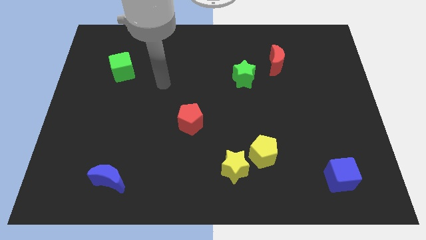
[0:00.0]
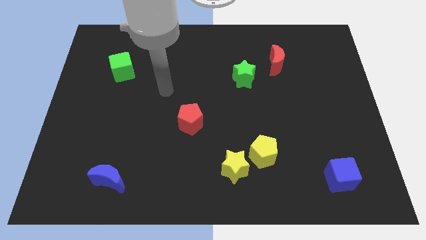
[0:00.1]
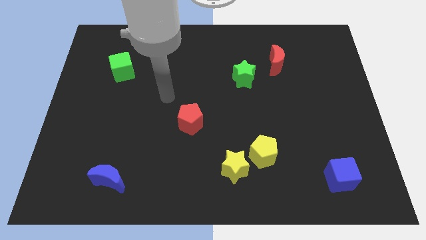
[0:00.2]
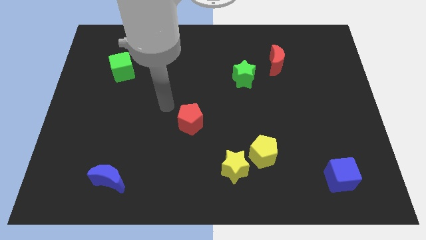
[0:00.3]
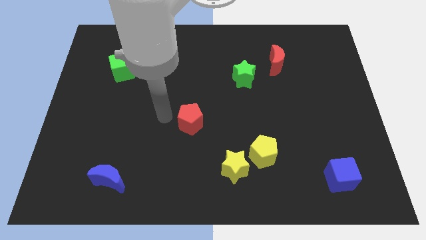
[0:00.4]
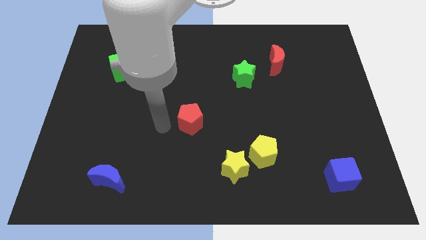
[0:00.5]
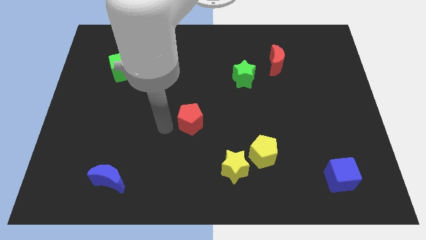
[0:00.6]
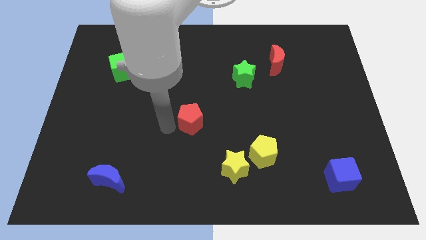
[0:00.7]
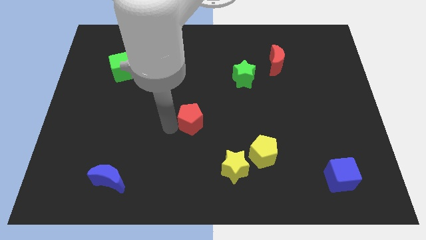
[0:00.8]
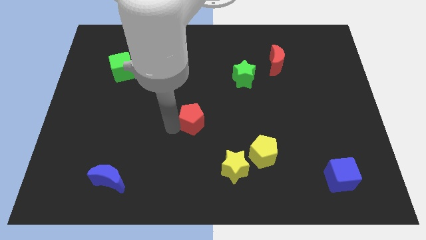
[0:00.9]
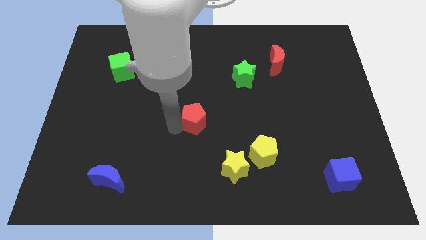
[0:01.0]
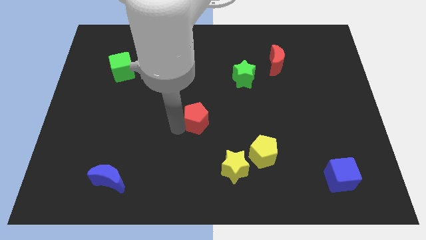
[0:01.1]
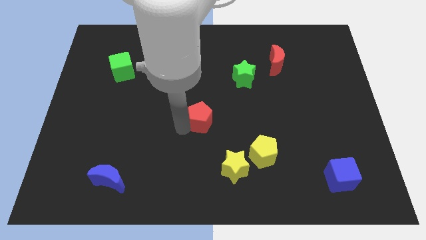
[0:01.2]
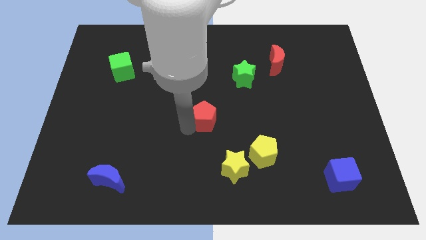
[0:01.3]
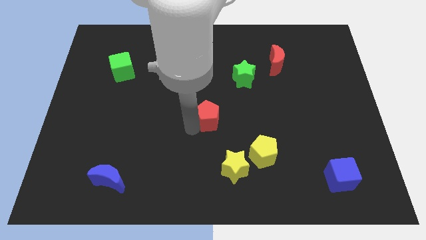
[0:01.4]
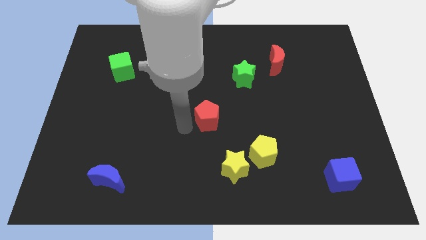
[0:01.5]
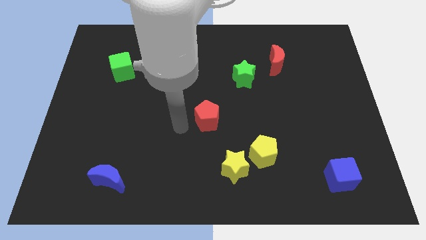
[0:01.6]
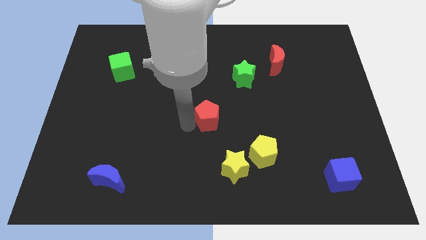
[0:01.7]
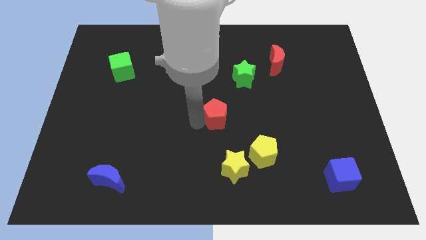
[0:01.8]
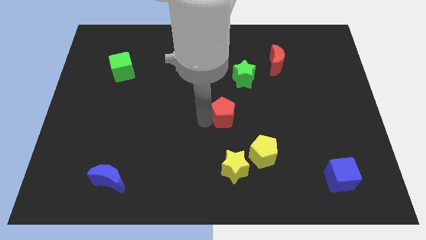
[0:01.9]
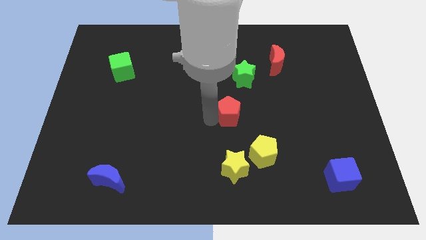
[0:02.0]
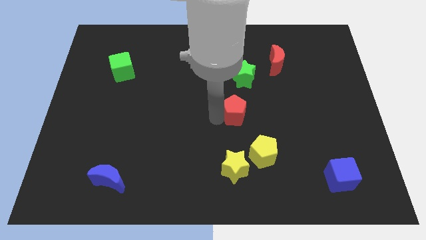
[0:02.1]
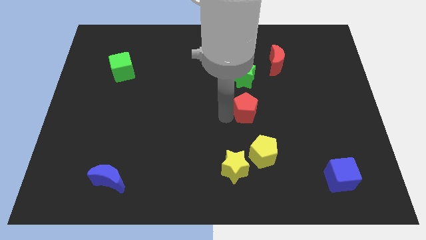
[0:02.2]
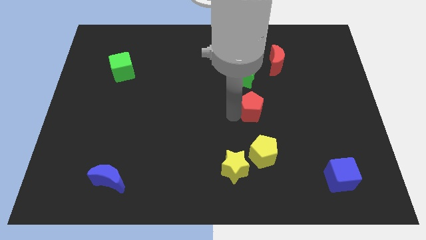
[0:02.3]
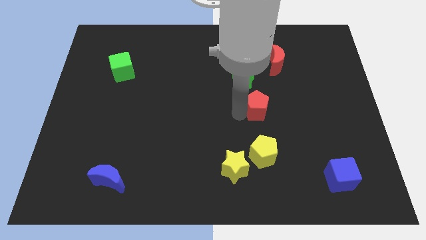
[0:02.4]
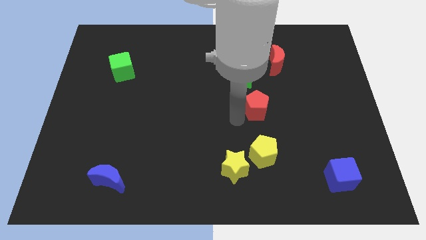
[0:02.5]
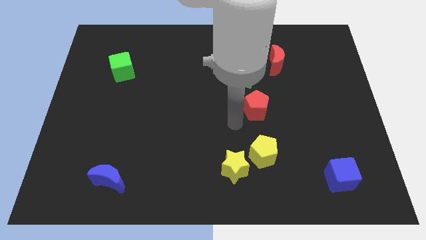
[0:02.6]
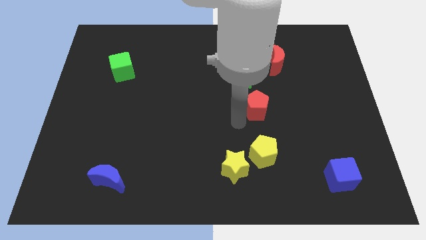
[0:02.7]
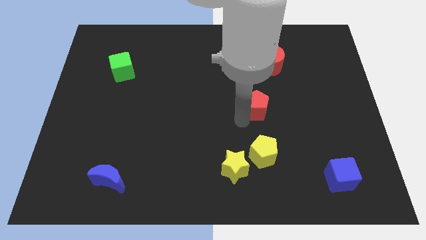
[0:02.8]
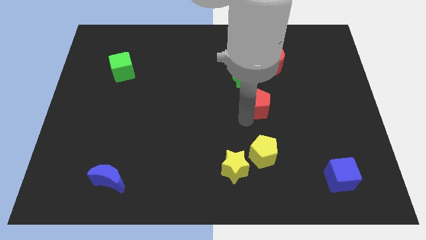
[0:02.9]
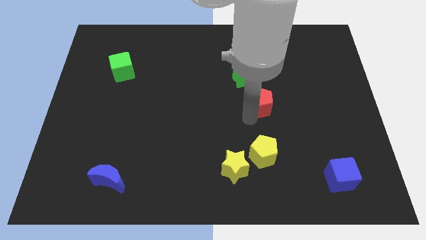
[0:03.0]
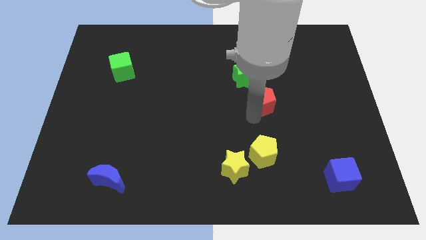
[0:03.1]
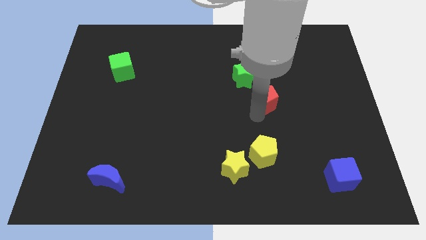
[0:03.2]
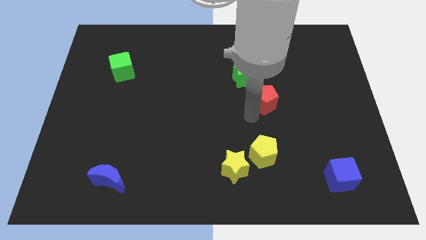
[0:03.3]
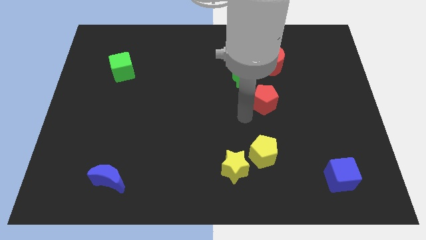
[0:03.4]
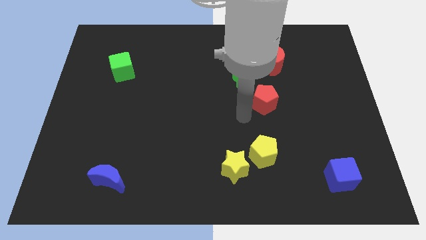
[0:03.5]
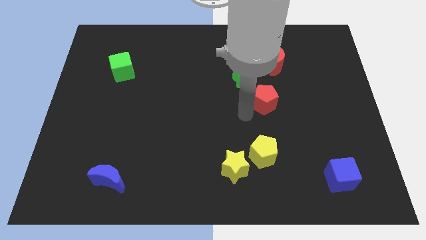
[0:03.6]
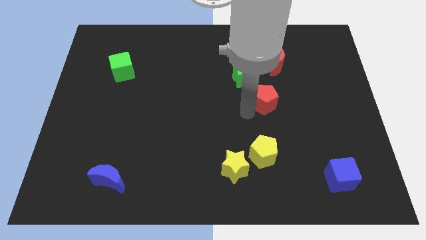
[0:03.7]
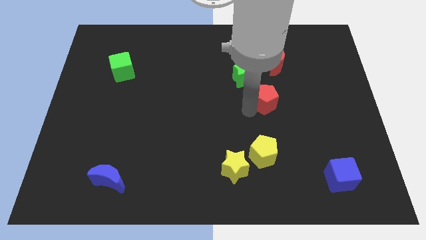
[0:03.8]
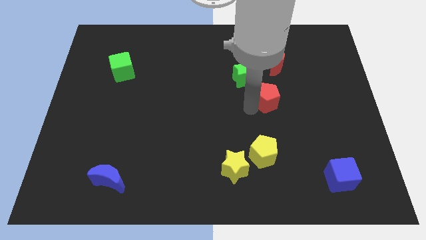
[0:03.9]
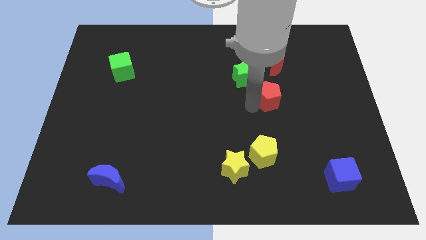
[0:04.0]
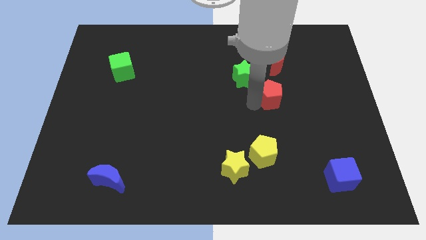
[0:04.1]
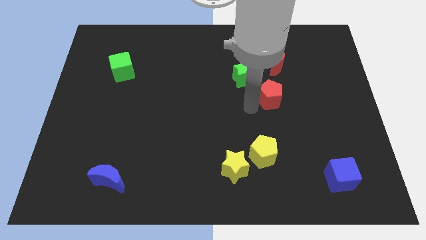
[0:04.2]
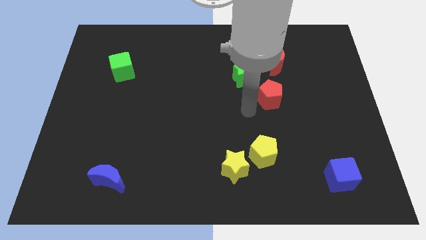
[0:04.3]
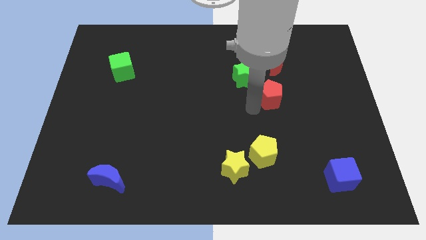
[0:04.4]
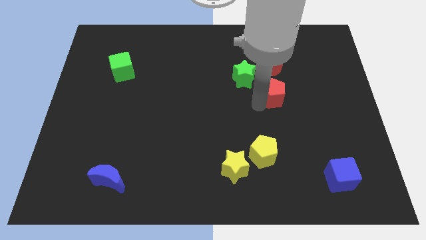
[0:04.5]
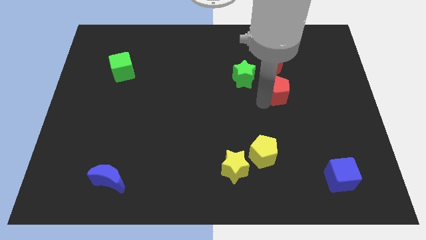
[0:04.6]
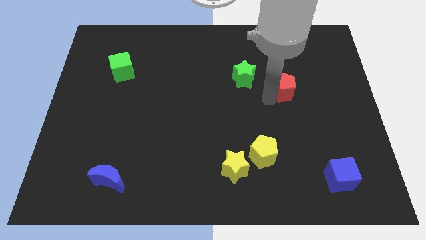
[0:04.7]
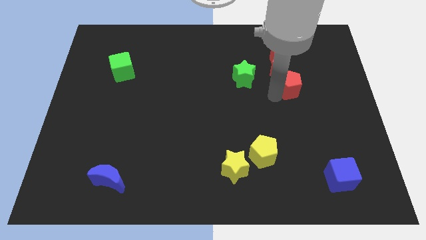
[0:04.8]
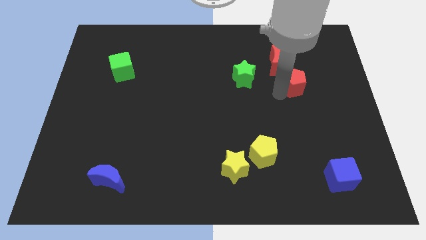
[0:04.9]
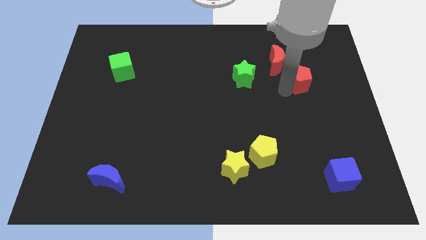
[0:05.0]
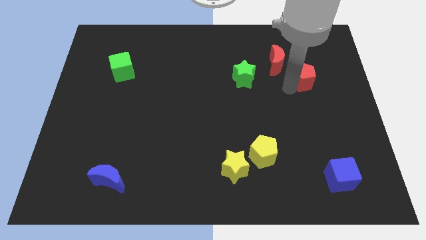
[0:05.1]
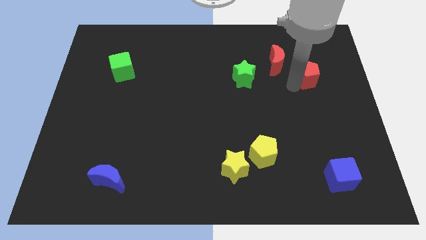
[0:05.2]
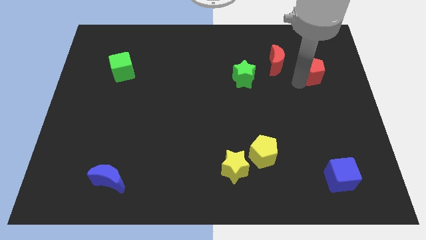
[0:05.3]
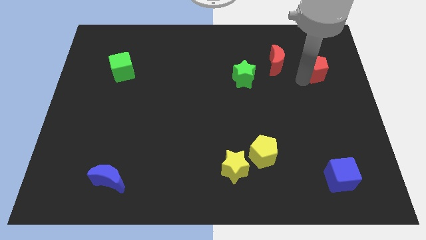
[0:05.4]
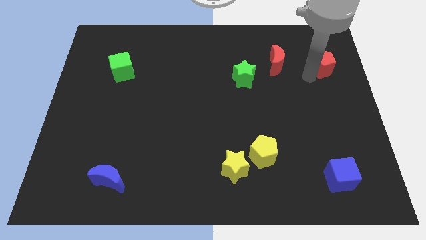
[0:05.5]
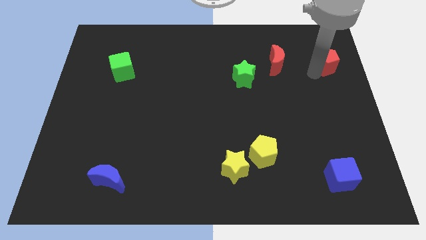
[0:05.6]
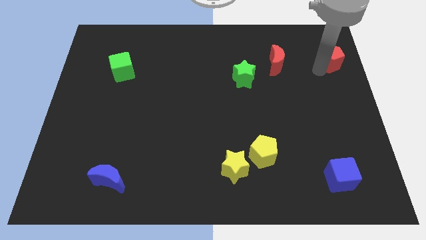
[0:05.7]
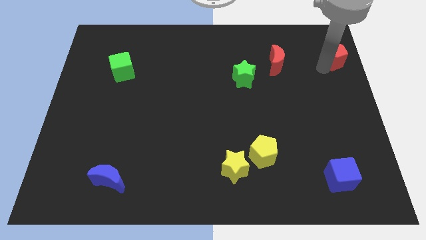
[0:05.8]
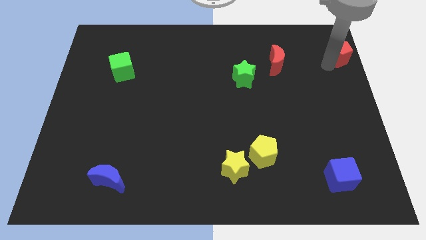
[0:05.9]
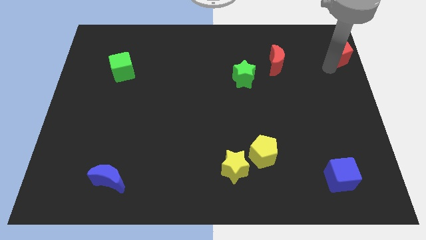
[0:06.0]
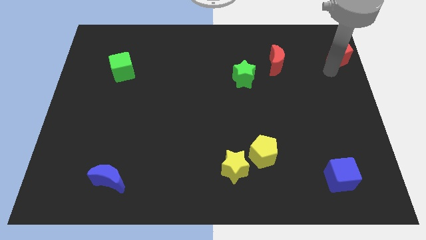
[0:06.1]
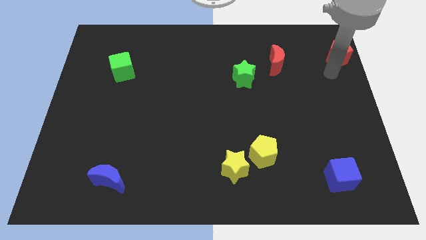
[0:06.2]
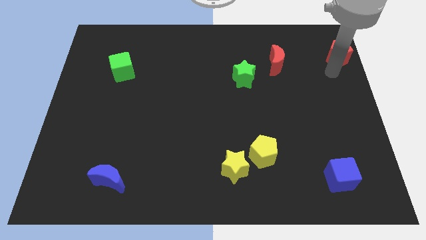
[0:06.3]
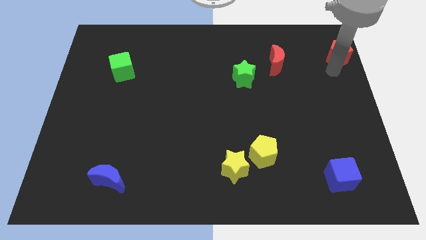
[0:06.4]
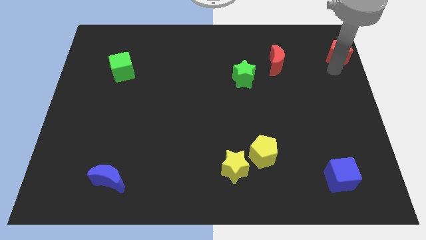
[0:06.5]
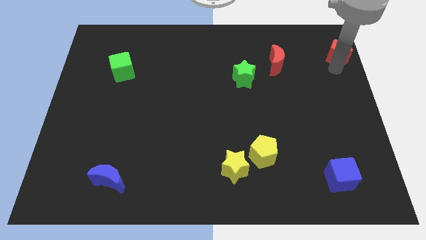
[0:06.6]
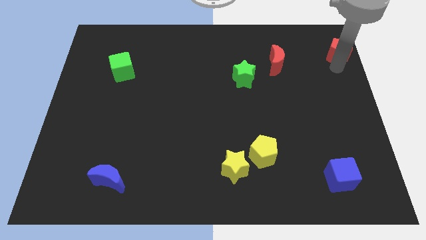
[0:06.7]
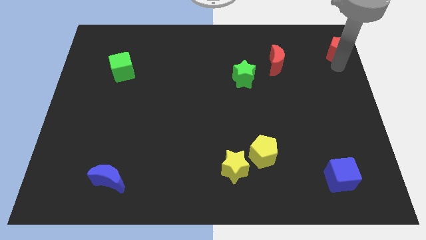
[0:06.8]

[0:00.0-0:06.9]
put the red pentagon to the top right corner

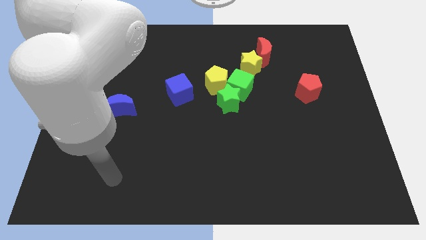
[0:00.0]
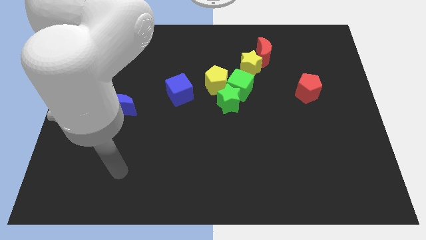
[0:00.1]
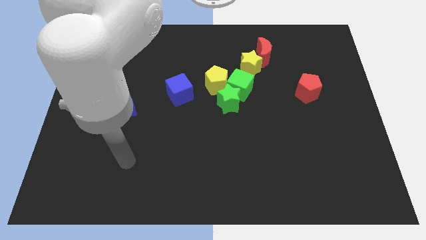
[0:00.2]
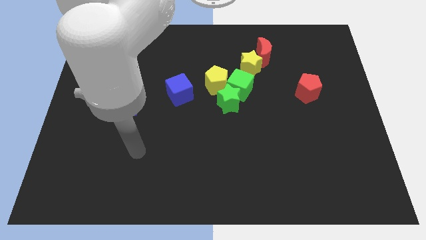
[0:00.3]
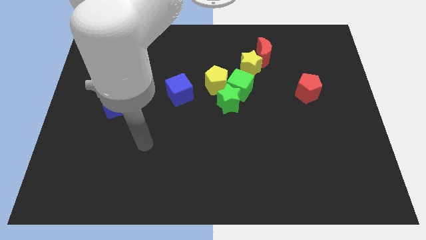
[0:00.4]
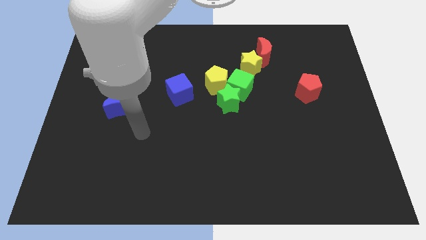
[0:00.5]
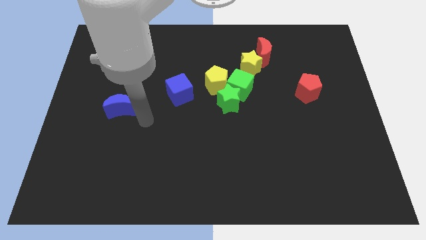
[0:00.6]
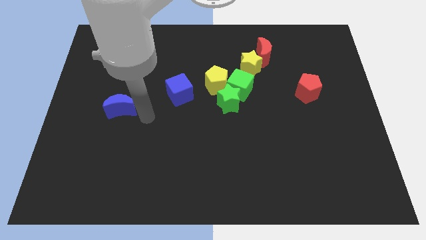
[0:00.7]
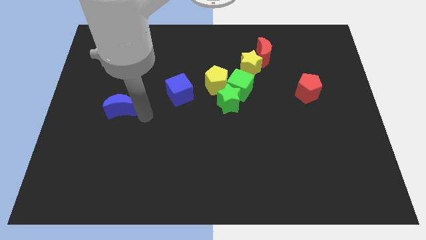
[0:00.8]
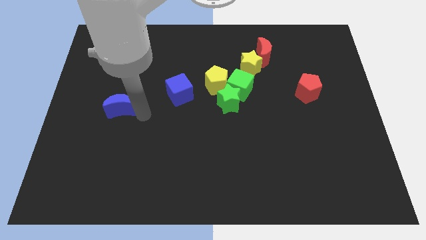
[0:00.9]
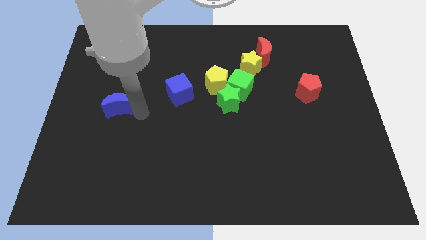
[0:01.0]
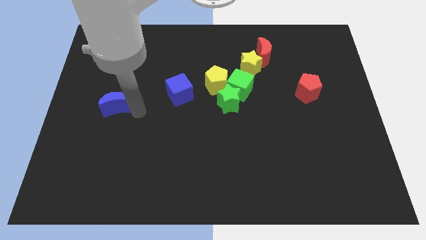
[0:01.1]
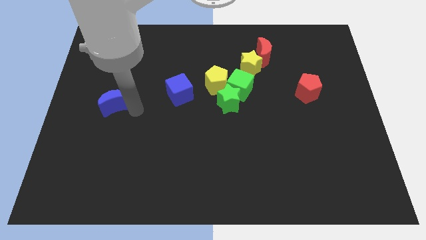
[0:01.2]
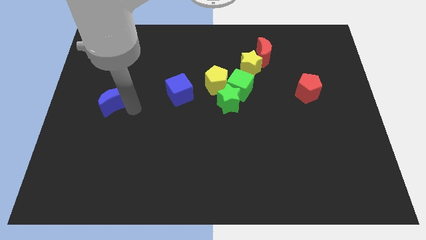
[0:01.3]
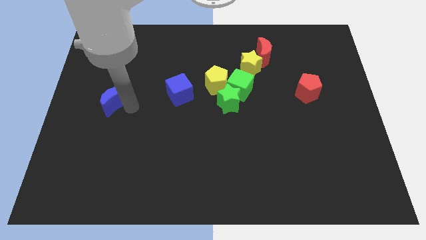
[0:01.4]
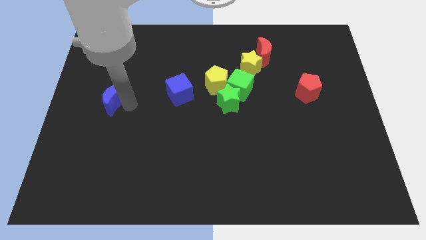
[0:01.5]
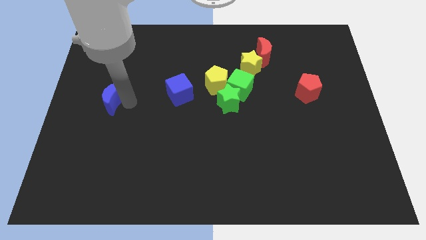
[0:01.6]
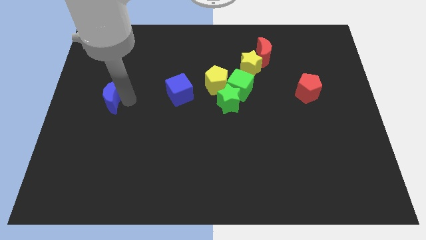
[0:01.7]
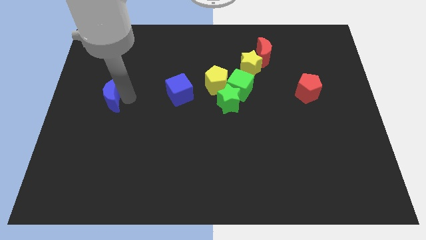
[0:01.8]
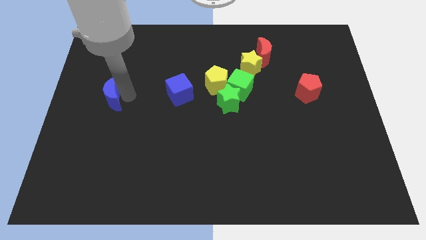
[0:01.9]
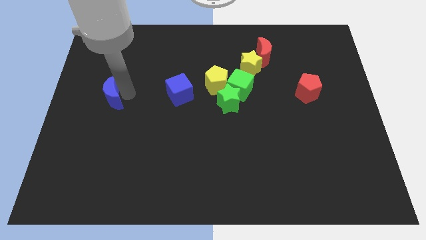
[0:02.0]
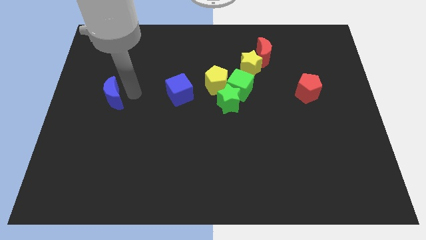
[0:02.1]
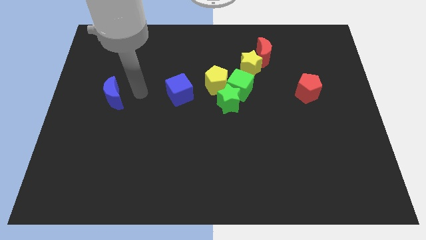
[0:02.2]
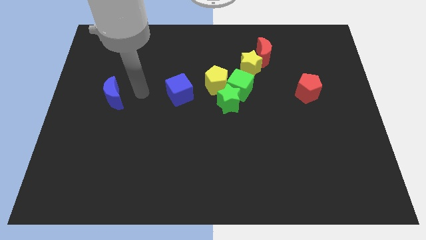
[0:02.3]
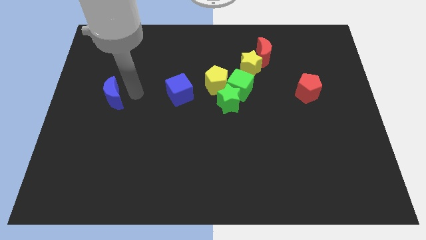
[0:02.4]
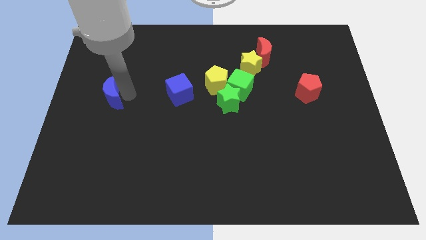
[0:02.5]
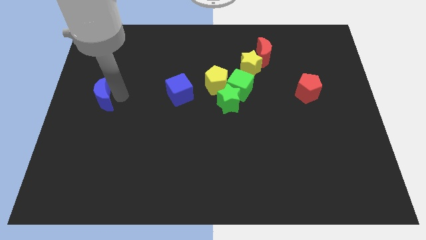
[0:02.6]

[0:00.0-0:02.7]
slide the blue moon to the left side of the board
